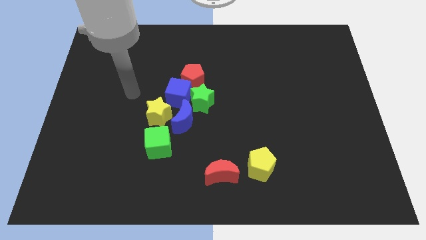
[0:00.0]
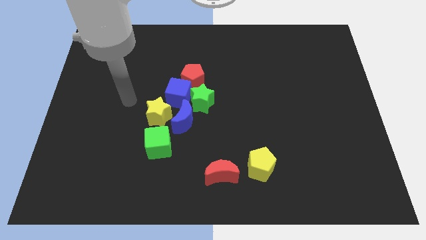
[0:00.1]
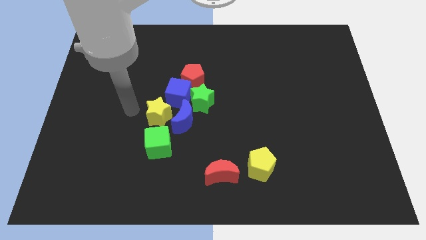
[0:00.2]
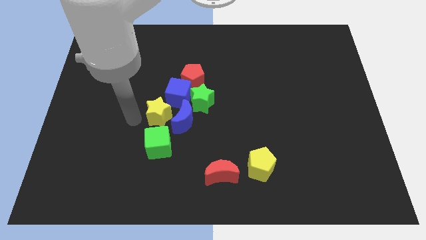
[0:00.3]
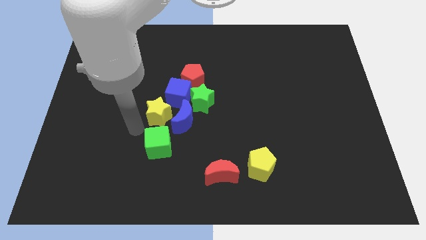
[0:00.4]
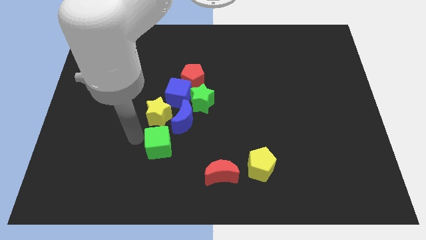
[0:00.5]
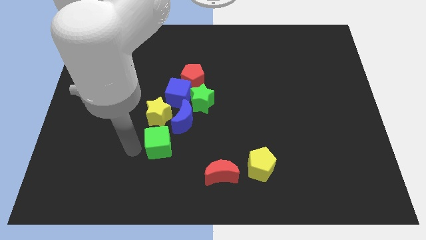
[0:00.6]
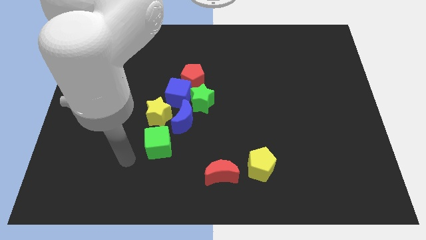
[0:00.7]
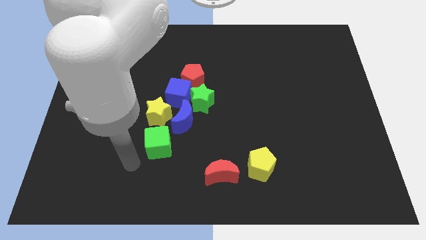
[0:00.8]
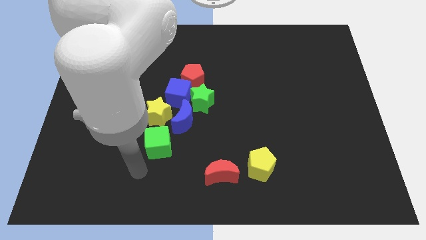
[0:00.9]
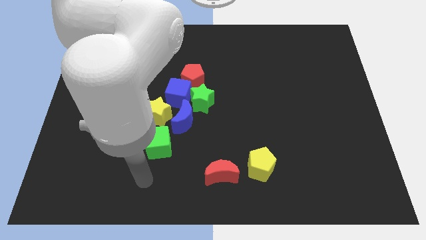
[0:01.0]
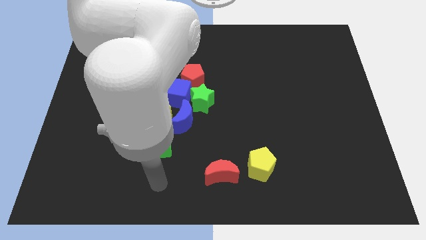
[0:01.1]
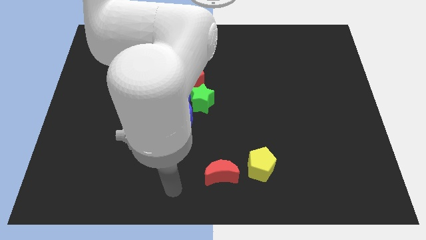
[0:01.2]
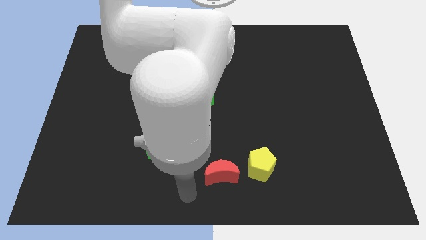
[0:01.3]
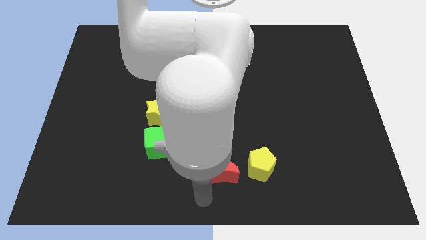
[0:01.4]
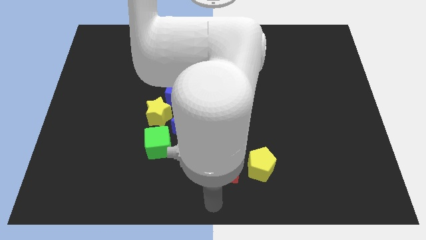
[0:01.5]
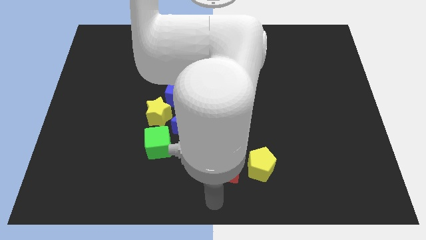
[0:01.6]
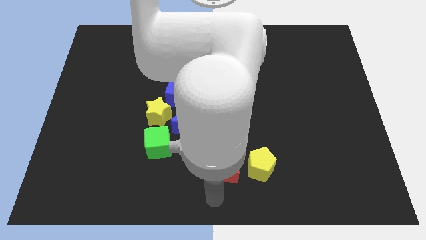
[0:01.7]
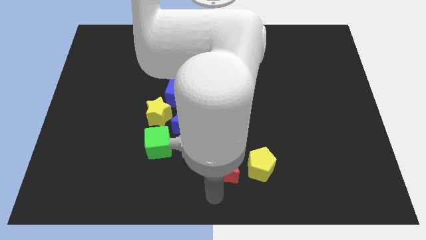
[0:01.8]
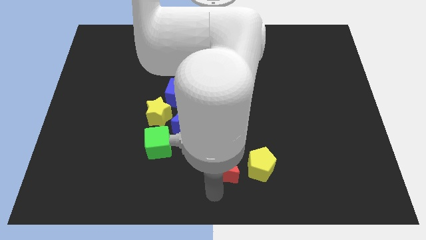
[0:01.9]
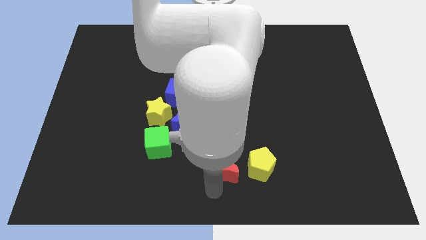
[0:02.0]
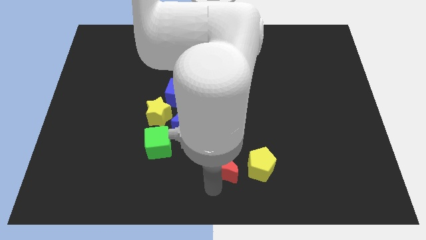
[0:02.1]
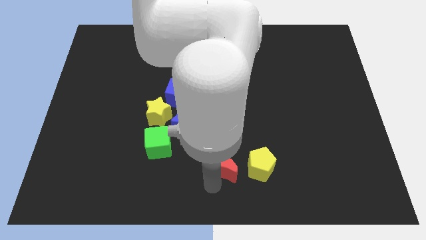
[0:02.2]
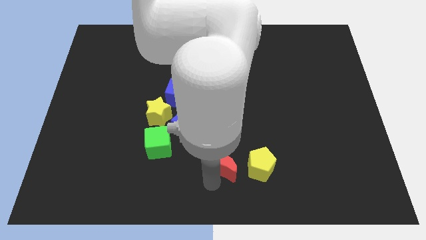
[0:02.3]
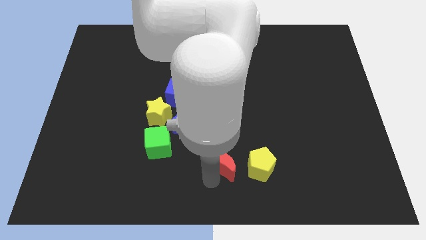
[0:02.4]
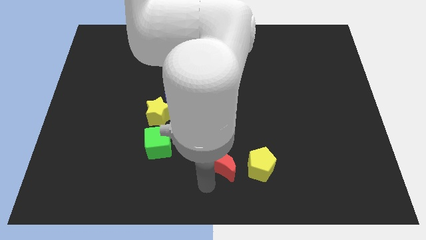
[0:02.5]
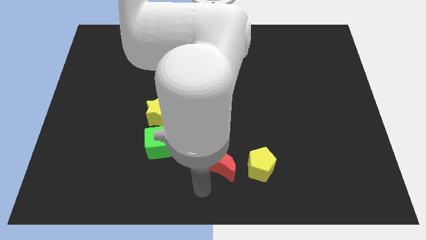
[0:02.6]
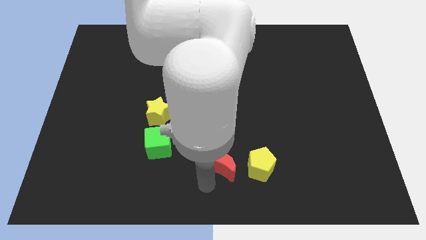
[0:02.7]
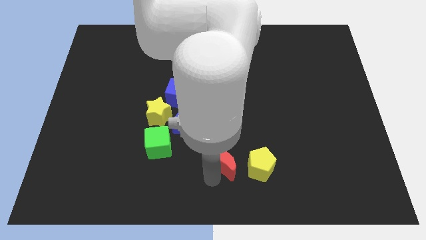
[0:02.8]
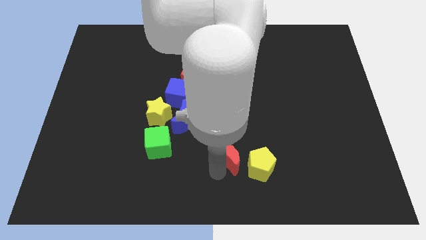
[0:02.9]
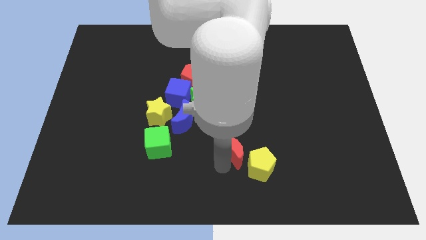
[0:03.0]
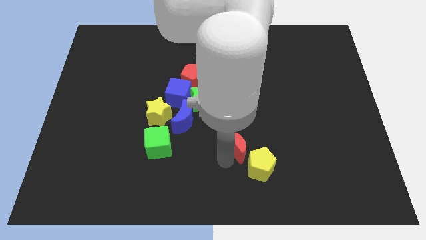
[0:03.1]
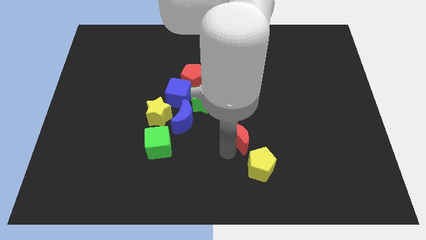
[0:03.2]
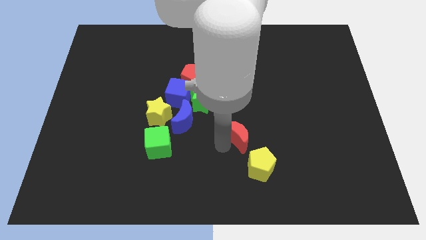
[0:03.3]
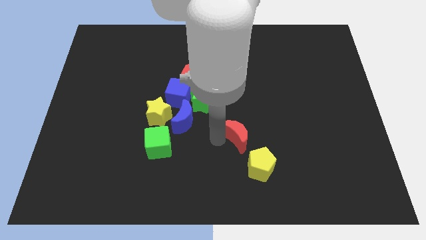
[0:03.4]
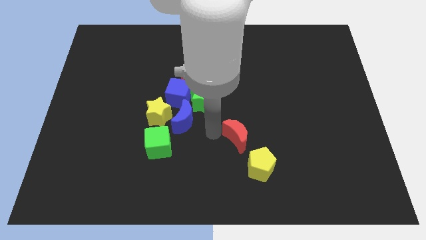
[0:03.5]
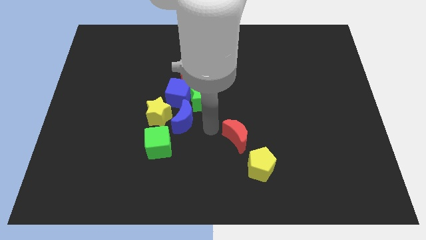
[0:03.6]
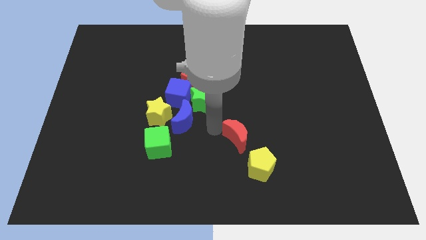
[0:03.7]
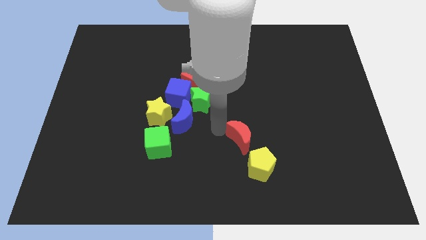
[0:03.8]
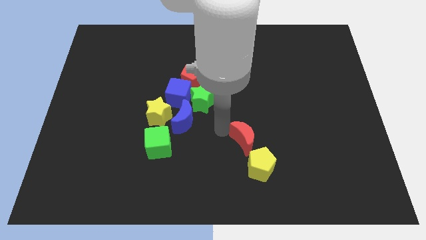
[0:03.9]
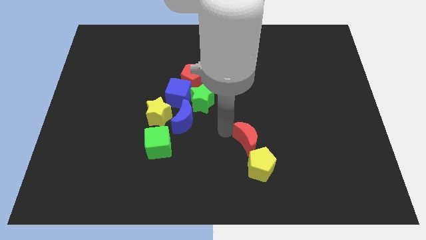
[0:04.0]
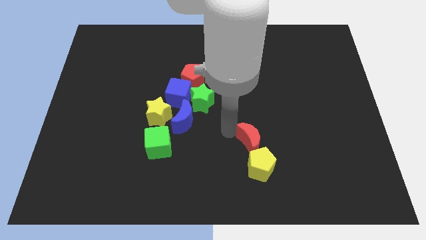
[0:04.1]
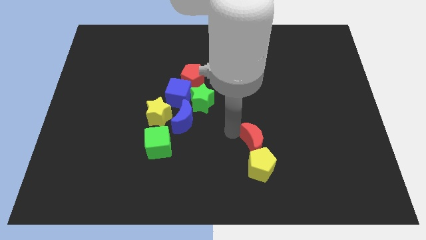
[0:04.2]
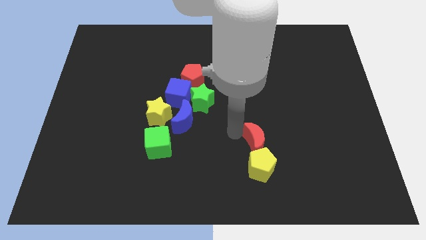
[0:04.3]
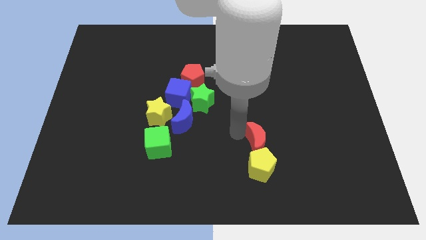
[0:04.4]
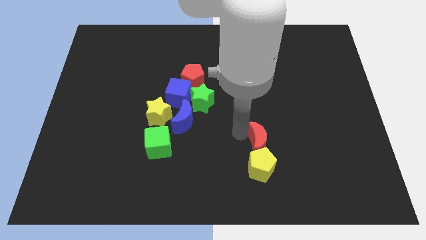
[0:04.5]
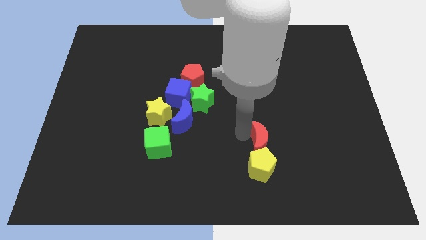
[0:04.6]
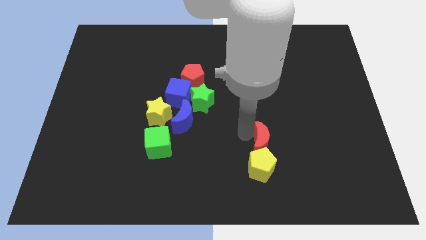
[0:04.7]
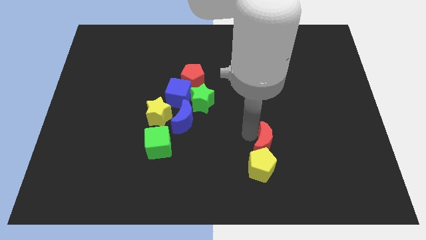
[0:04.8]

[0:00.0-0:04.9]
move the red moon a little right

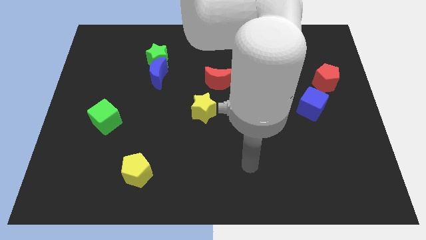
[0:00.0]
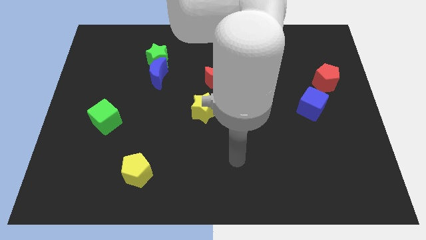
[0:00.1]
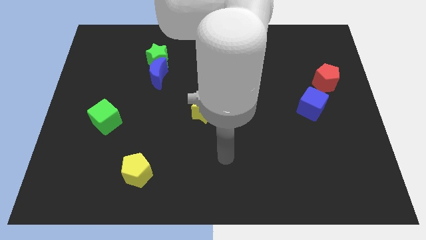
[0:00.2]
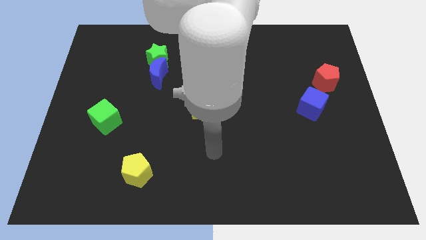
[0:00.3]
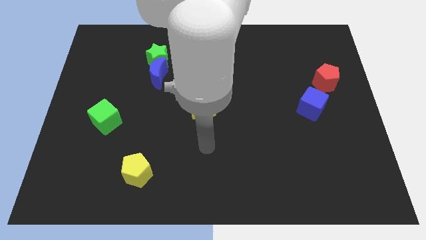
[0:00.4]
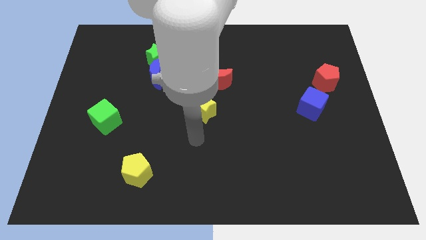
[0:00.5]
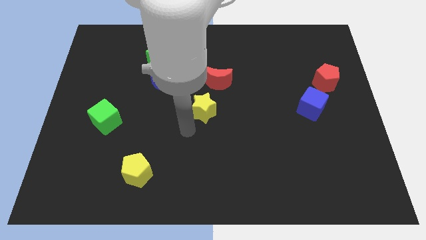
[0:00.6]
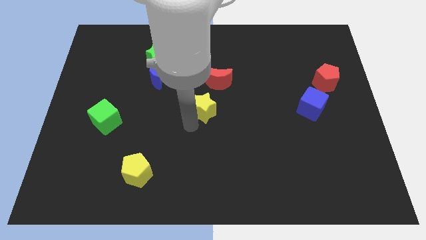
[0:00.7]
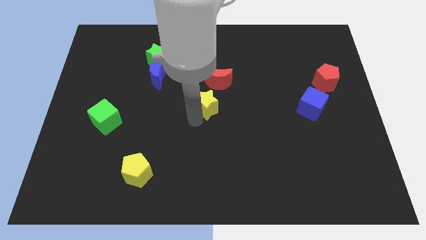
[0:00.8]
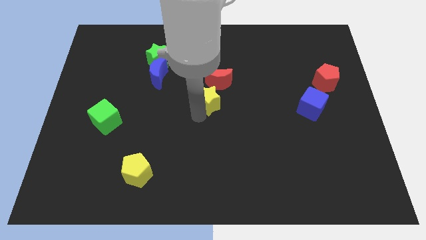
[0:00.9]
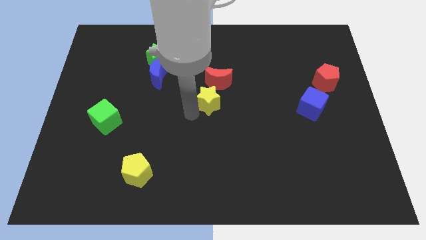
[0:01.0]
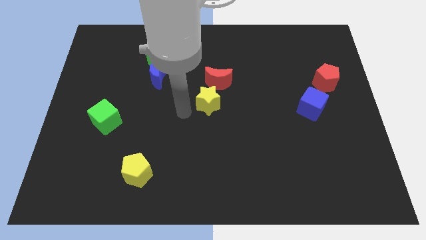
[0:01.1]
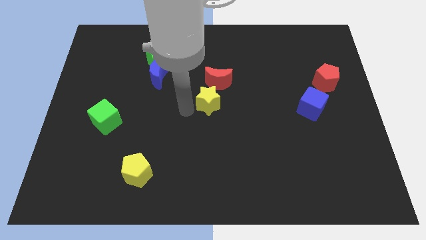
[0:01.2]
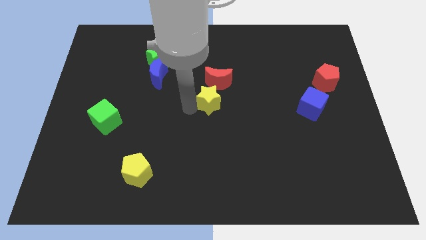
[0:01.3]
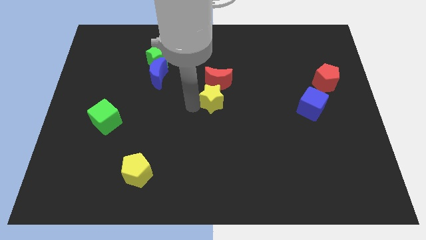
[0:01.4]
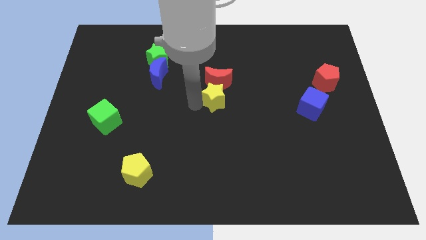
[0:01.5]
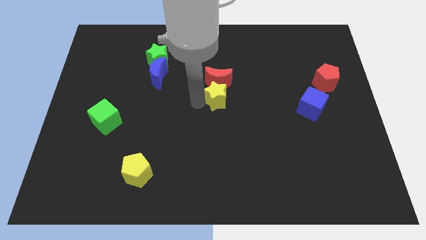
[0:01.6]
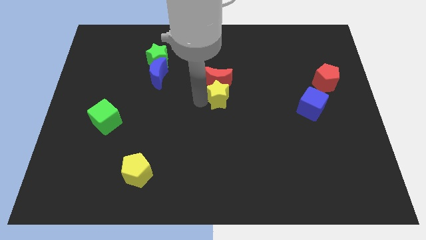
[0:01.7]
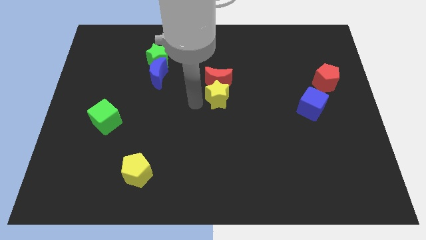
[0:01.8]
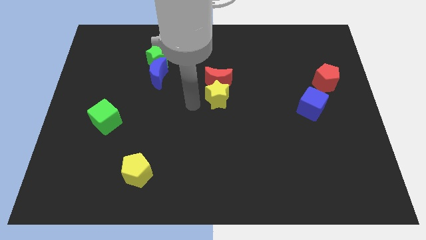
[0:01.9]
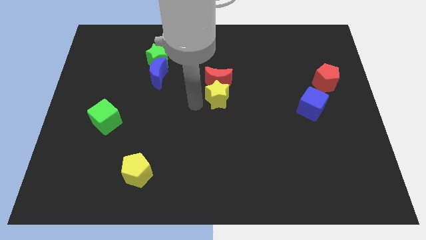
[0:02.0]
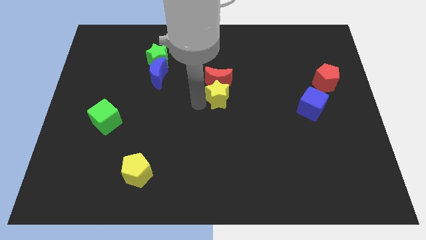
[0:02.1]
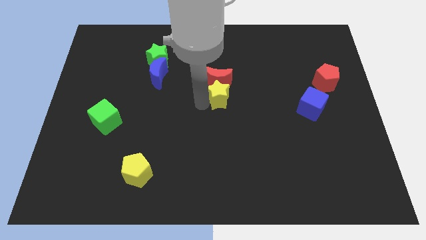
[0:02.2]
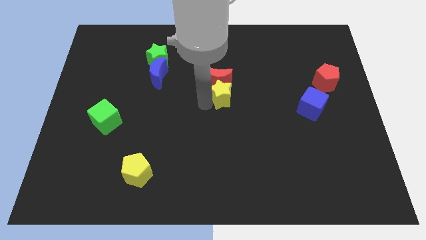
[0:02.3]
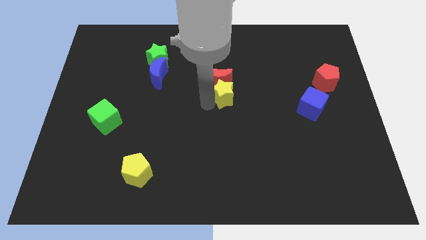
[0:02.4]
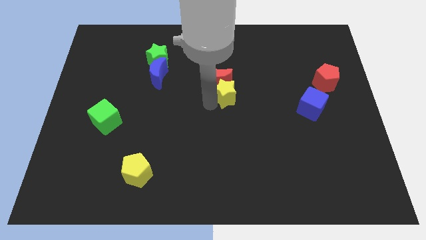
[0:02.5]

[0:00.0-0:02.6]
move the yellow star up and to the right diagonally somewhat

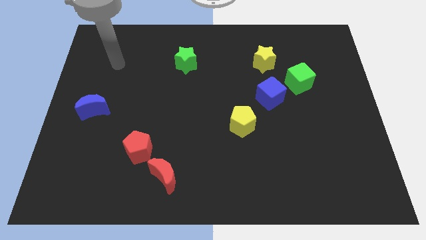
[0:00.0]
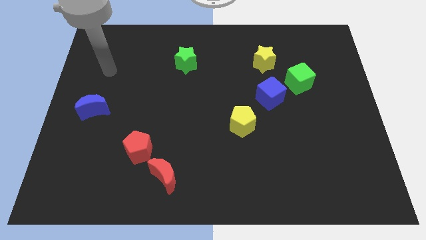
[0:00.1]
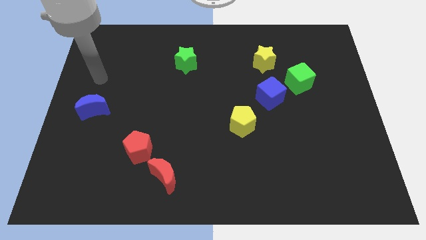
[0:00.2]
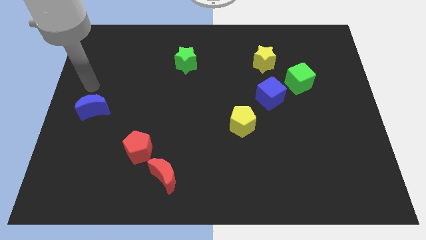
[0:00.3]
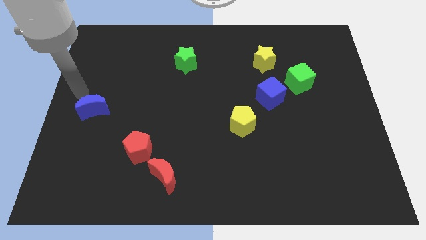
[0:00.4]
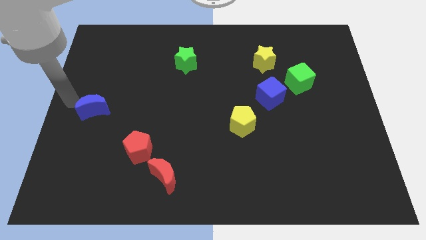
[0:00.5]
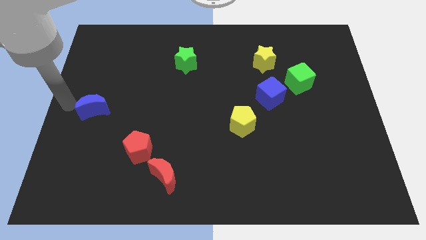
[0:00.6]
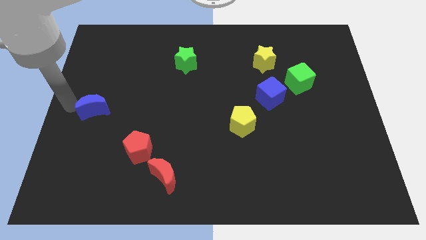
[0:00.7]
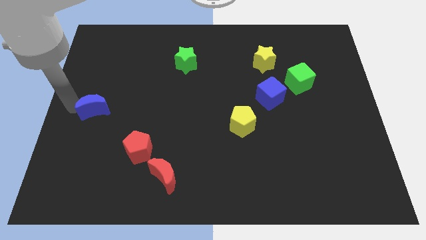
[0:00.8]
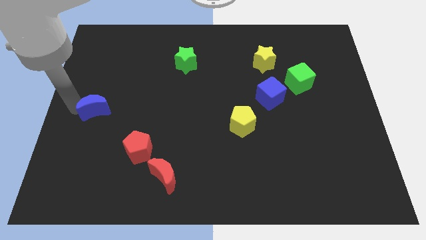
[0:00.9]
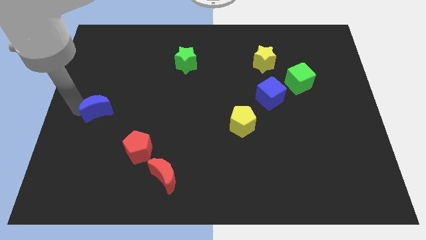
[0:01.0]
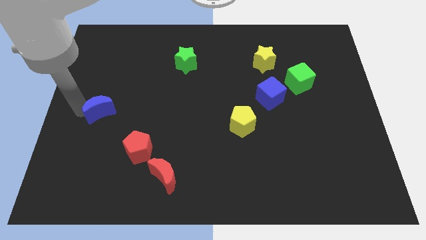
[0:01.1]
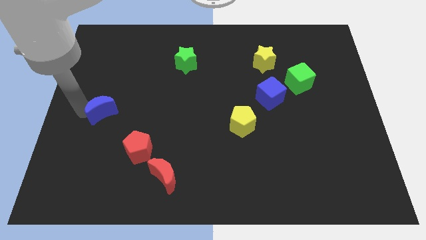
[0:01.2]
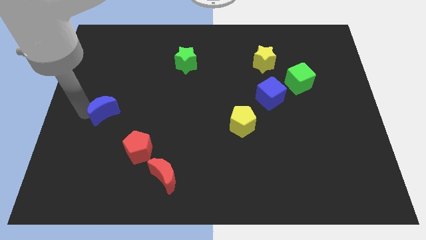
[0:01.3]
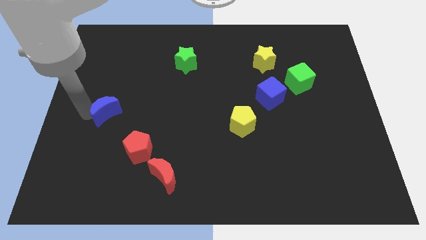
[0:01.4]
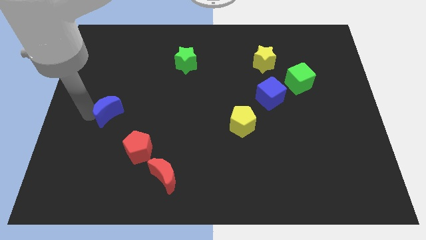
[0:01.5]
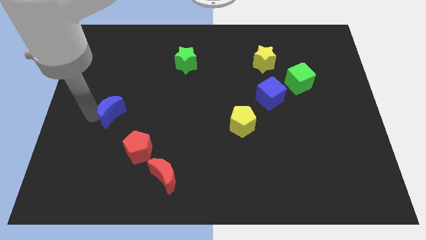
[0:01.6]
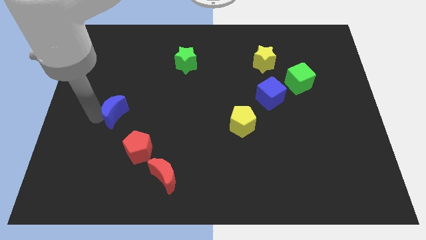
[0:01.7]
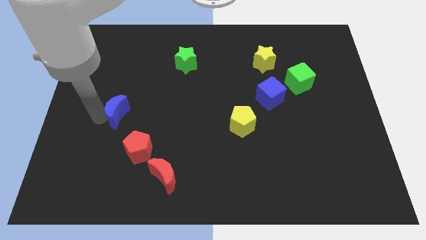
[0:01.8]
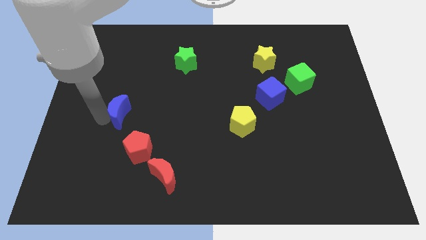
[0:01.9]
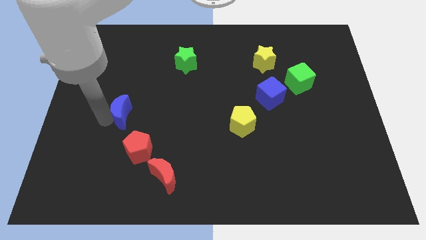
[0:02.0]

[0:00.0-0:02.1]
slightly move the blue moon right
